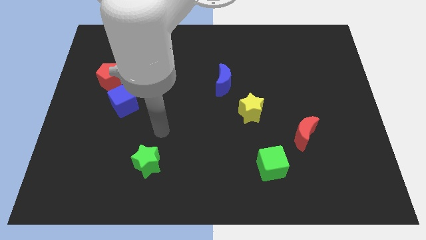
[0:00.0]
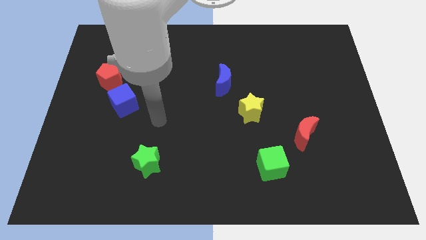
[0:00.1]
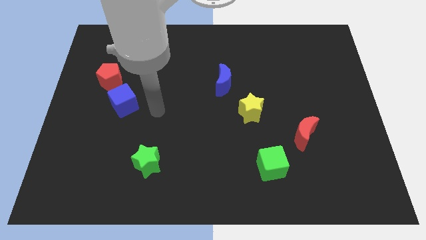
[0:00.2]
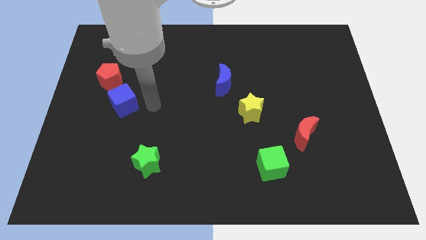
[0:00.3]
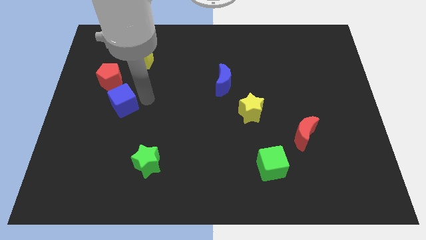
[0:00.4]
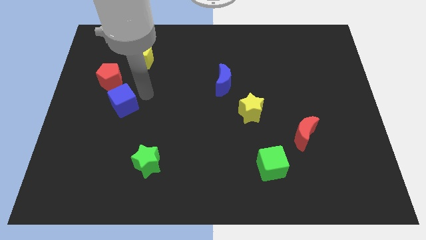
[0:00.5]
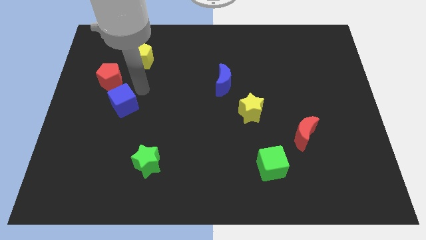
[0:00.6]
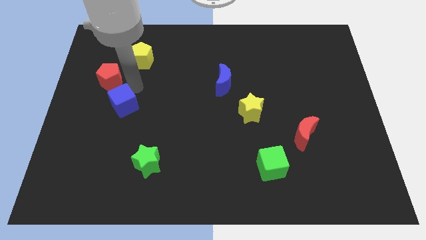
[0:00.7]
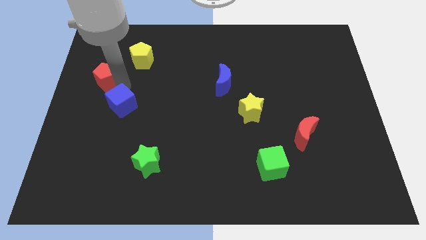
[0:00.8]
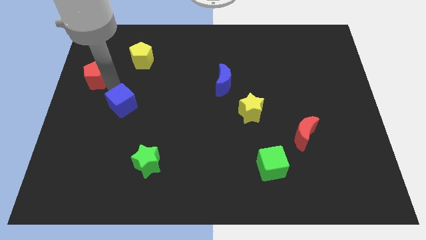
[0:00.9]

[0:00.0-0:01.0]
separate the blue cube from the red pentagon

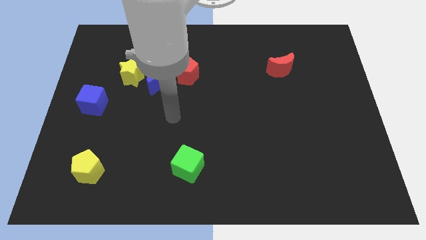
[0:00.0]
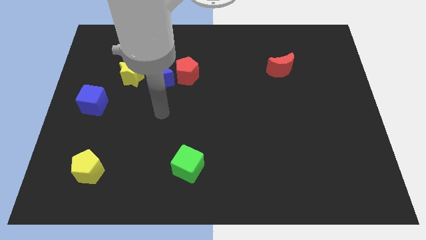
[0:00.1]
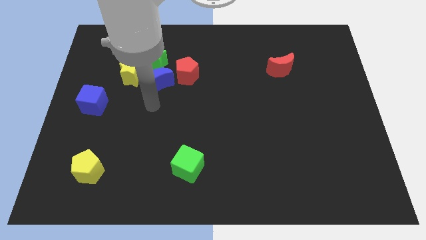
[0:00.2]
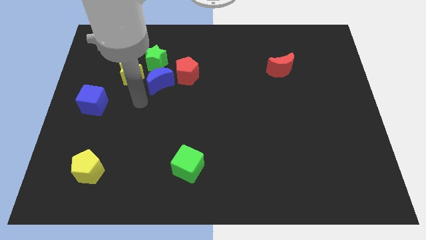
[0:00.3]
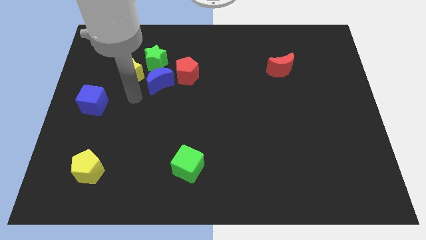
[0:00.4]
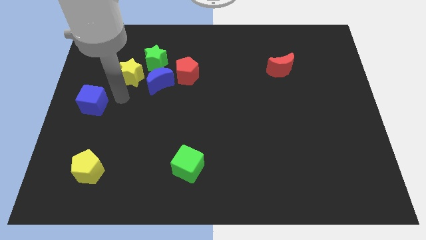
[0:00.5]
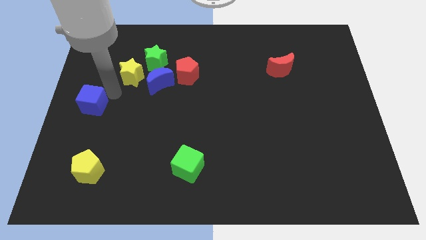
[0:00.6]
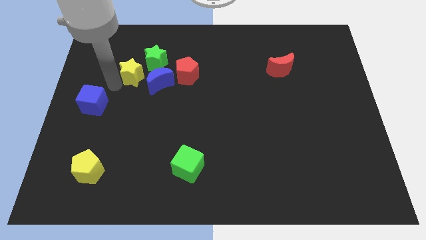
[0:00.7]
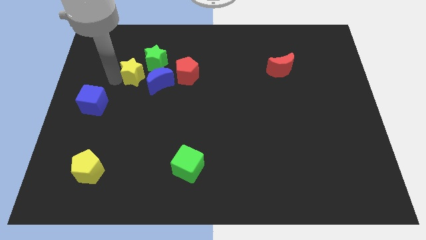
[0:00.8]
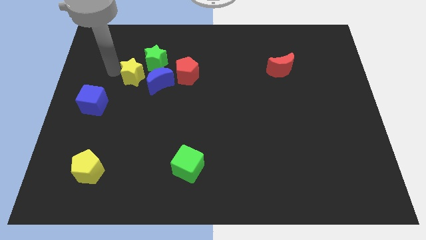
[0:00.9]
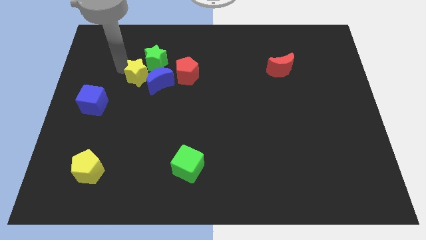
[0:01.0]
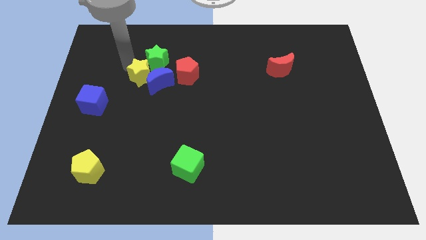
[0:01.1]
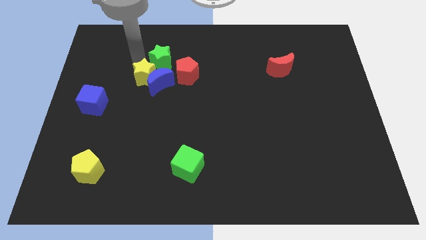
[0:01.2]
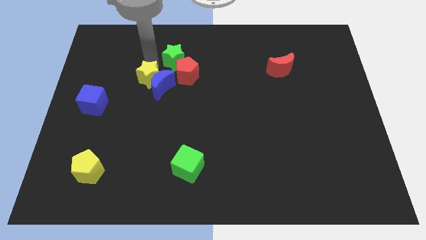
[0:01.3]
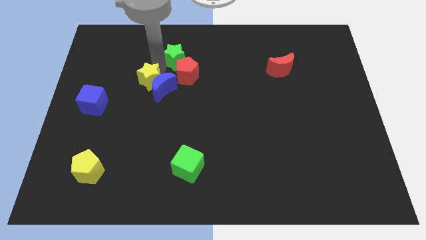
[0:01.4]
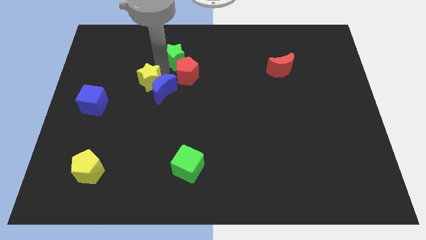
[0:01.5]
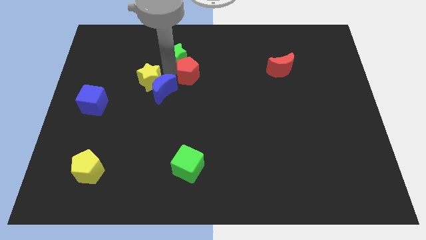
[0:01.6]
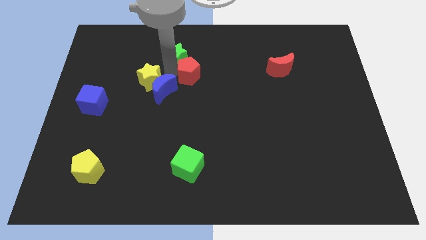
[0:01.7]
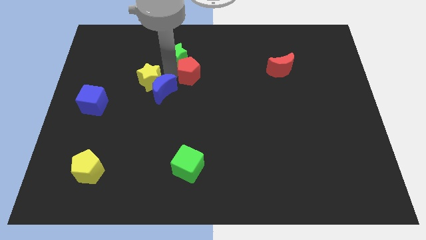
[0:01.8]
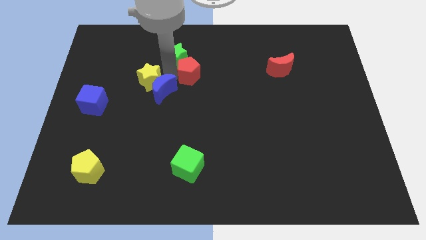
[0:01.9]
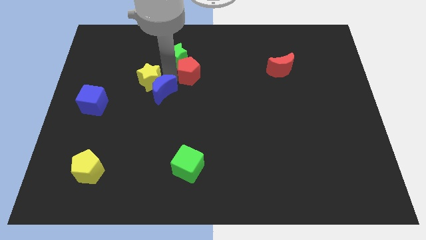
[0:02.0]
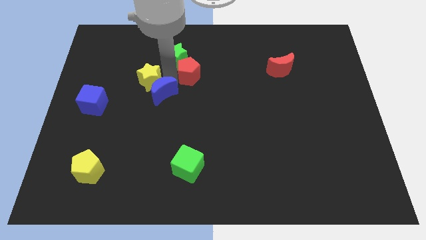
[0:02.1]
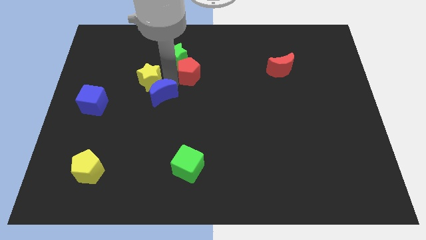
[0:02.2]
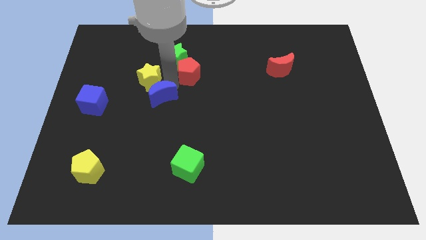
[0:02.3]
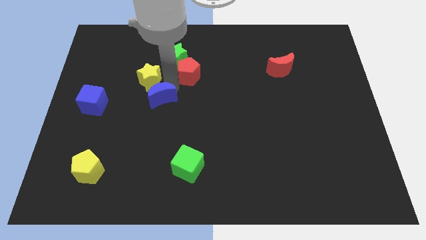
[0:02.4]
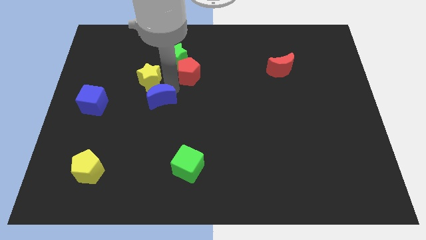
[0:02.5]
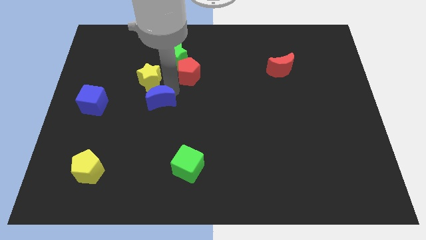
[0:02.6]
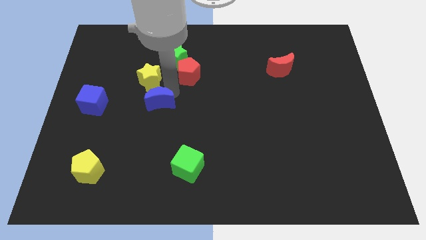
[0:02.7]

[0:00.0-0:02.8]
move the blue moon away from the red pentagon, yellow star, and green star

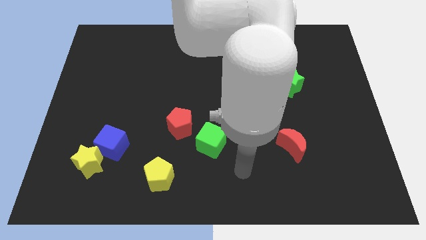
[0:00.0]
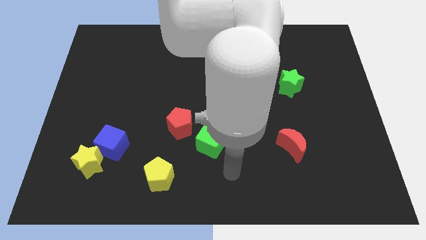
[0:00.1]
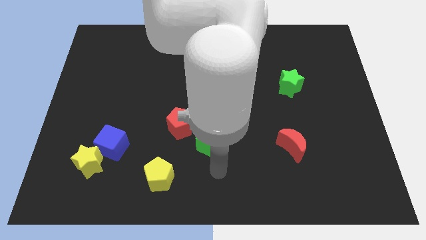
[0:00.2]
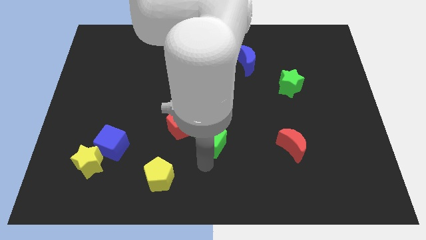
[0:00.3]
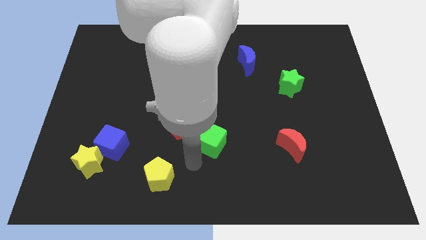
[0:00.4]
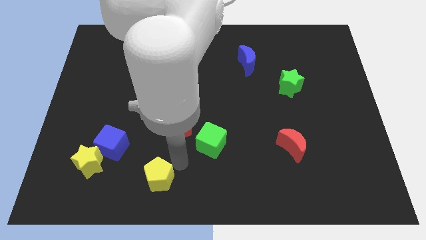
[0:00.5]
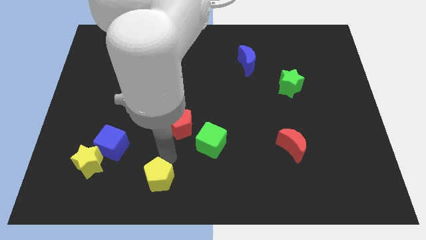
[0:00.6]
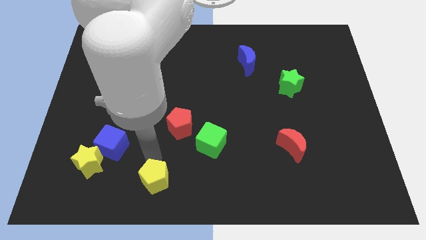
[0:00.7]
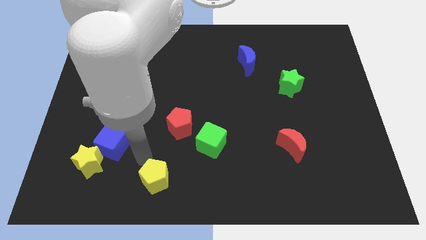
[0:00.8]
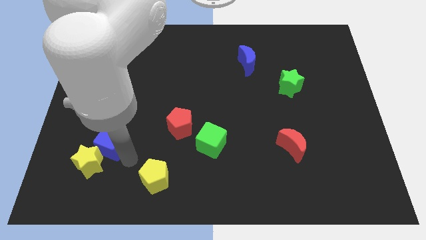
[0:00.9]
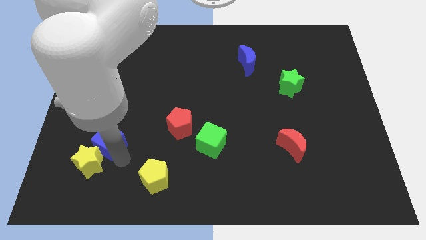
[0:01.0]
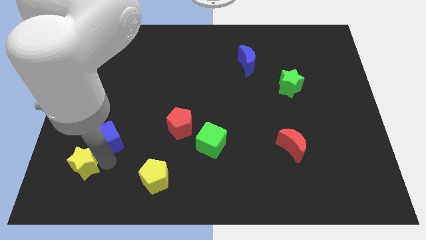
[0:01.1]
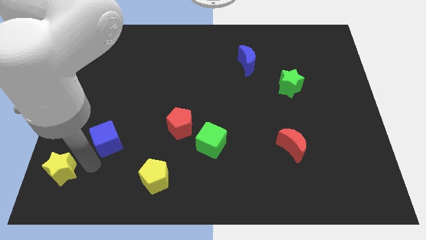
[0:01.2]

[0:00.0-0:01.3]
pull the blue cube apart from the yellow star

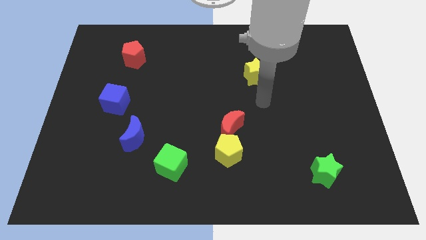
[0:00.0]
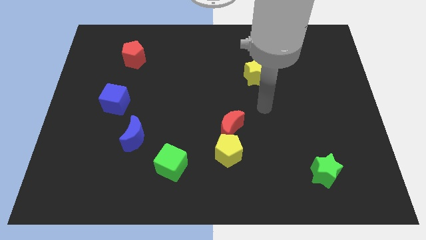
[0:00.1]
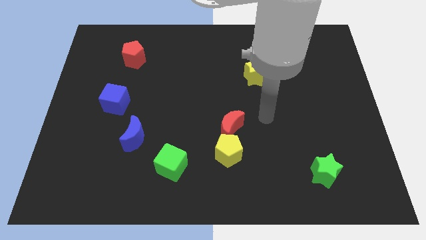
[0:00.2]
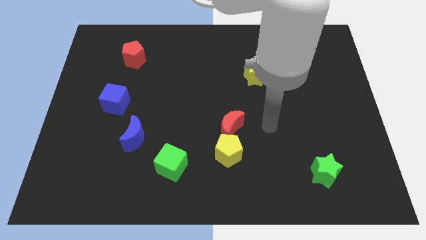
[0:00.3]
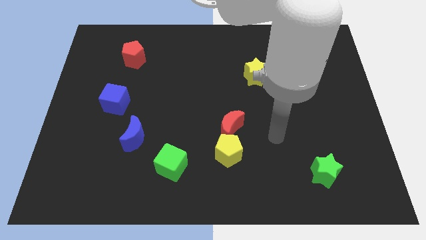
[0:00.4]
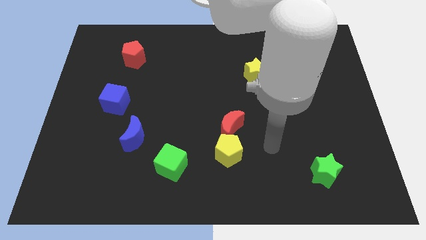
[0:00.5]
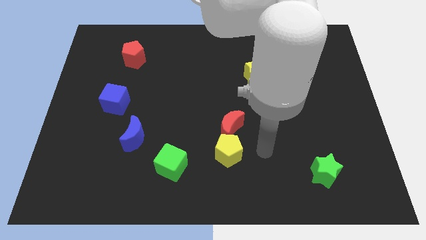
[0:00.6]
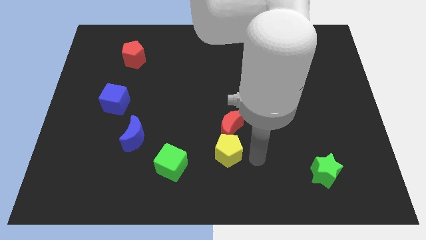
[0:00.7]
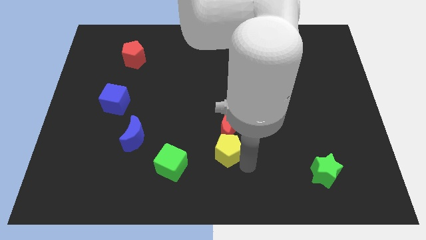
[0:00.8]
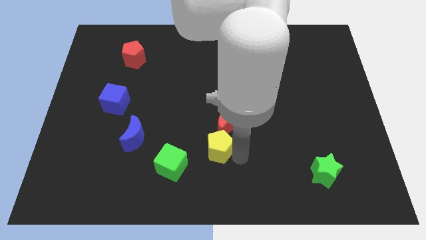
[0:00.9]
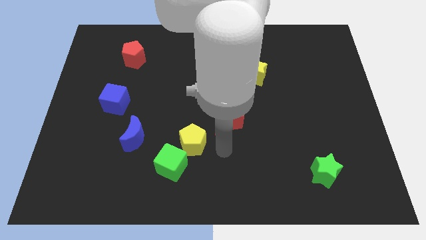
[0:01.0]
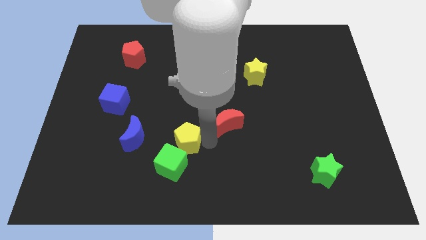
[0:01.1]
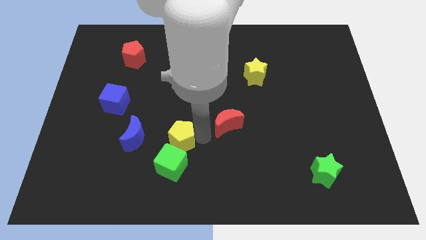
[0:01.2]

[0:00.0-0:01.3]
pull the red moon apart from the yellow pentagon

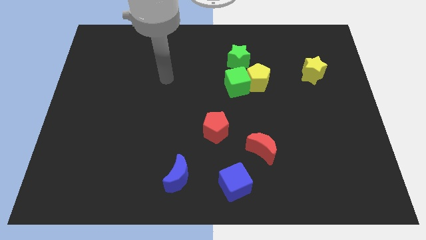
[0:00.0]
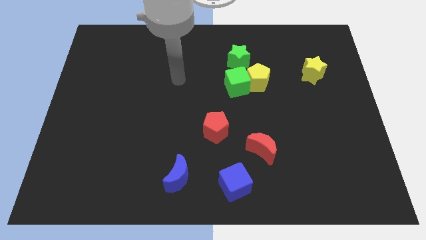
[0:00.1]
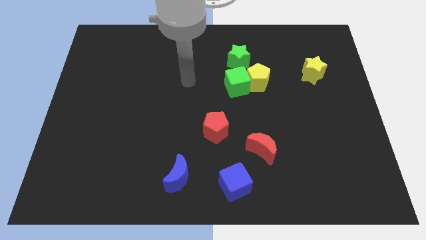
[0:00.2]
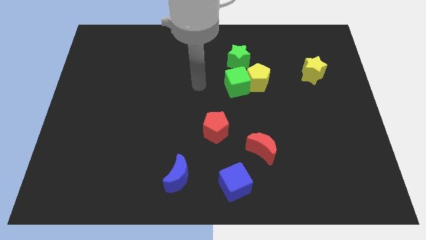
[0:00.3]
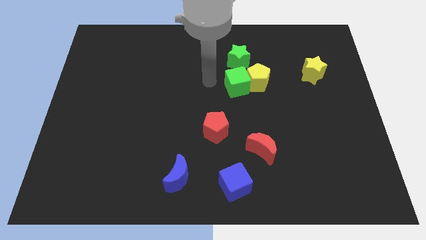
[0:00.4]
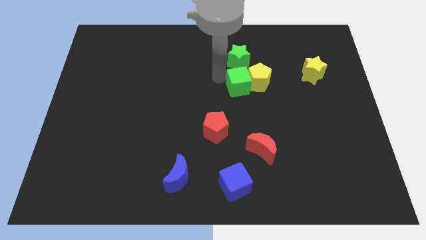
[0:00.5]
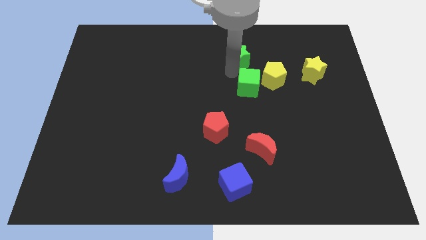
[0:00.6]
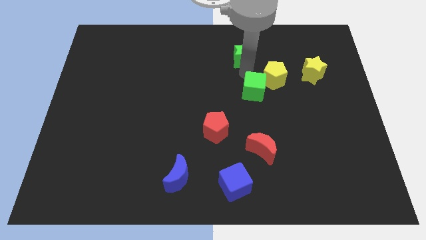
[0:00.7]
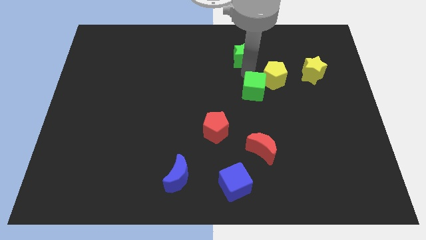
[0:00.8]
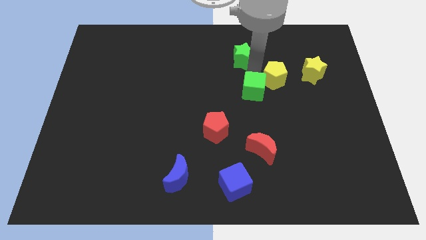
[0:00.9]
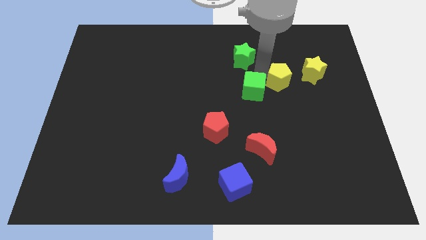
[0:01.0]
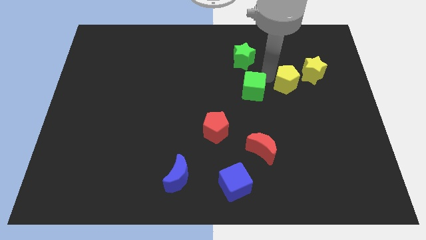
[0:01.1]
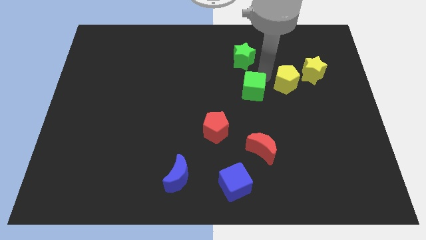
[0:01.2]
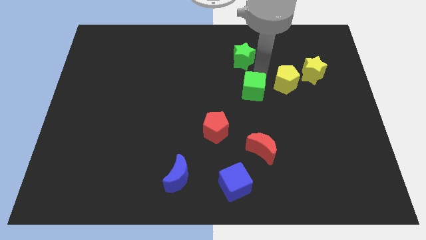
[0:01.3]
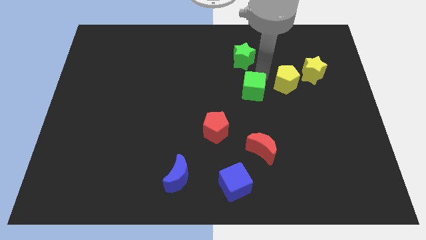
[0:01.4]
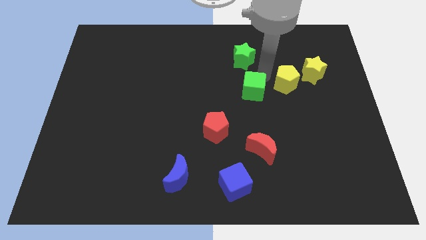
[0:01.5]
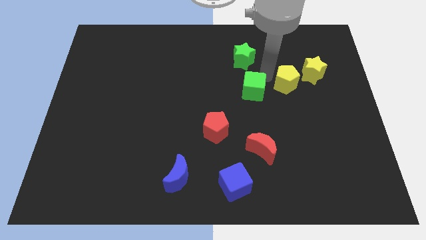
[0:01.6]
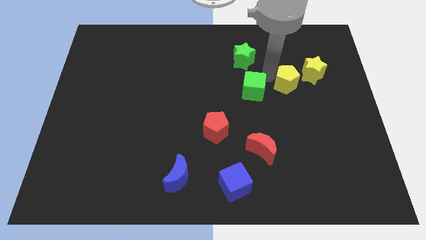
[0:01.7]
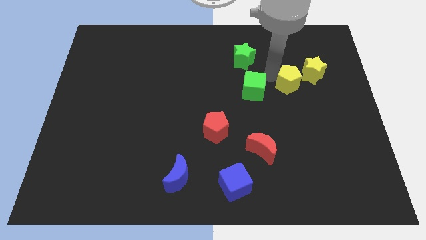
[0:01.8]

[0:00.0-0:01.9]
pull the yellow pentagon apart from the green cube and green star

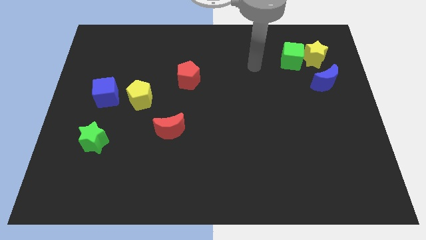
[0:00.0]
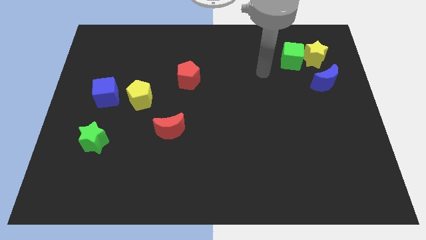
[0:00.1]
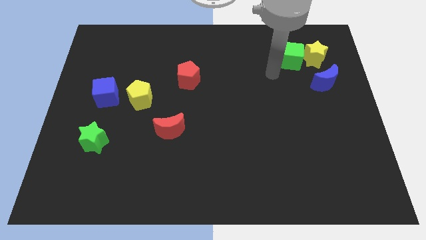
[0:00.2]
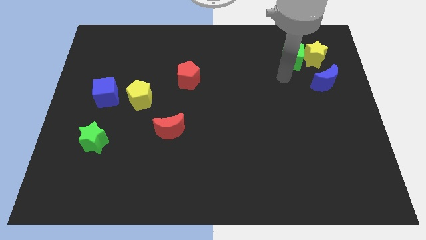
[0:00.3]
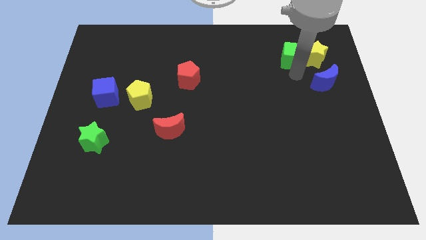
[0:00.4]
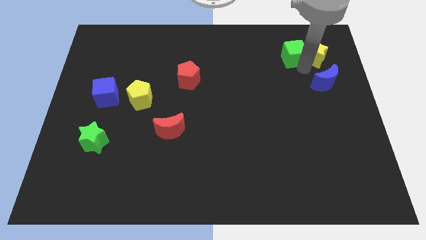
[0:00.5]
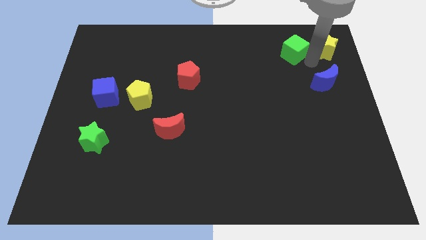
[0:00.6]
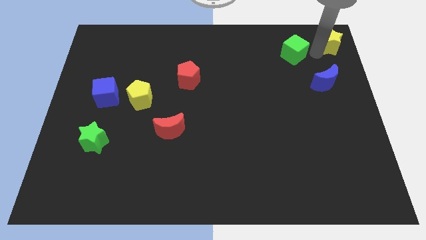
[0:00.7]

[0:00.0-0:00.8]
pull the green cube apart from the yellow star

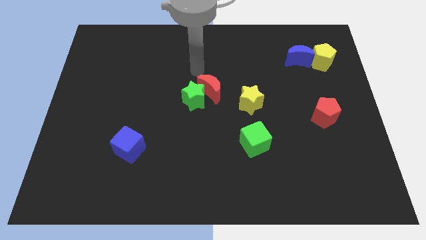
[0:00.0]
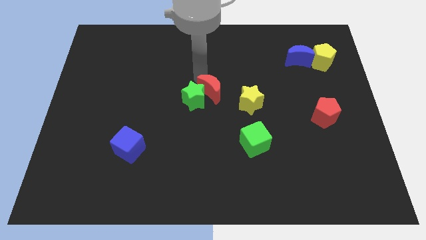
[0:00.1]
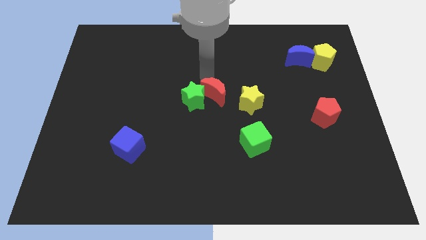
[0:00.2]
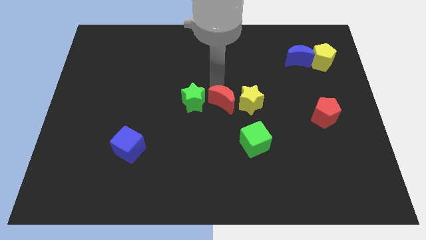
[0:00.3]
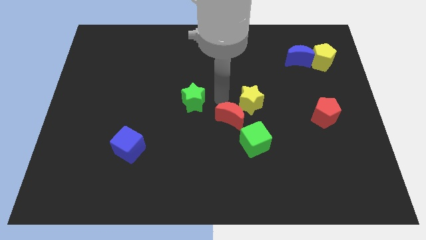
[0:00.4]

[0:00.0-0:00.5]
separate the green star from the red moon
